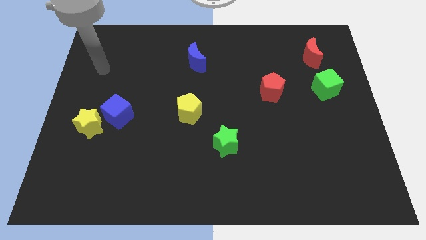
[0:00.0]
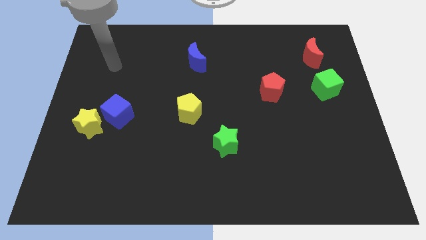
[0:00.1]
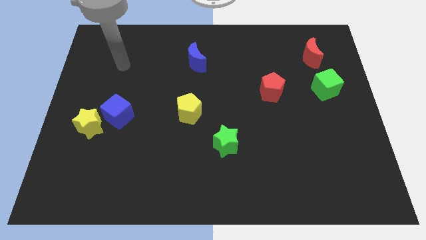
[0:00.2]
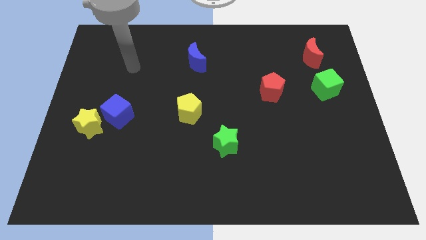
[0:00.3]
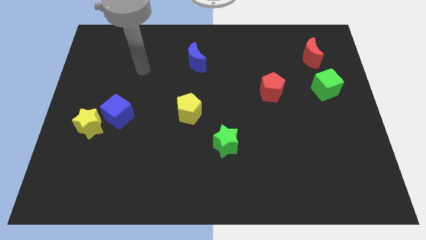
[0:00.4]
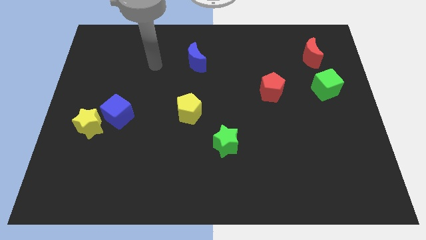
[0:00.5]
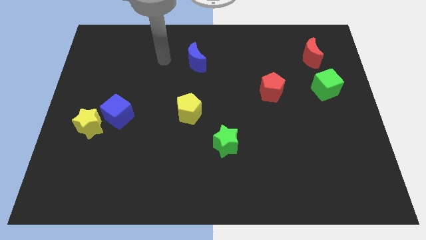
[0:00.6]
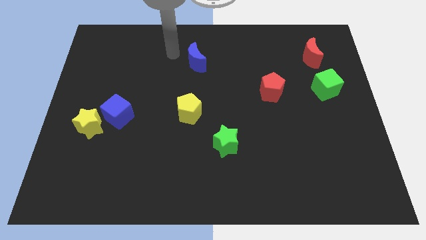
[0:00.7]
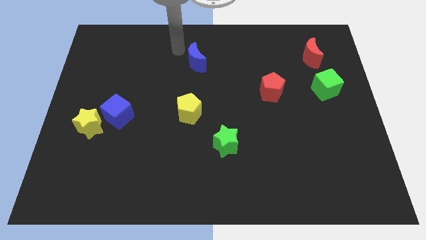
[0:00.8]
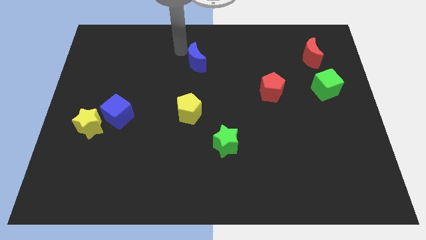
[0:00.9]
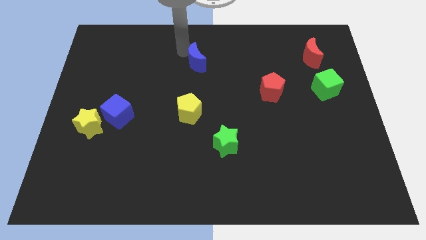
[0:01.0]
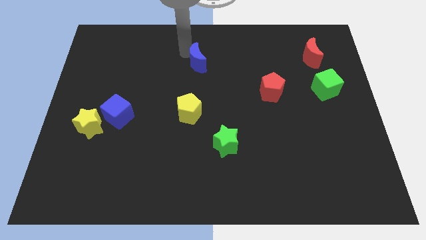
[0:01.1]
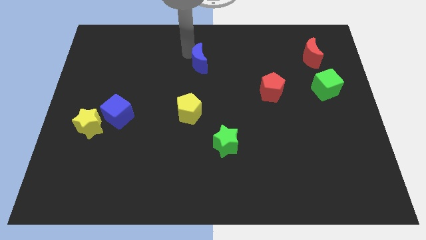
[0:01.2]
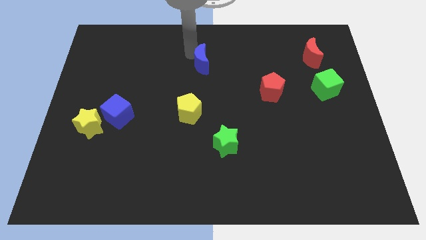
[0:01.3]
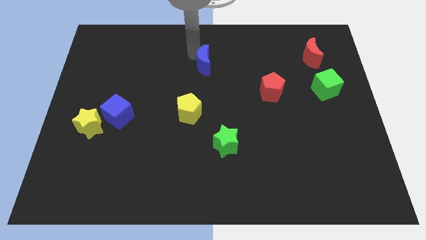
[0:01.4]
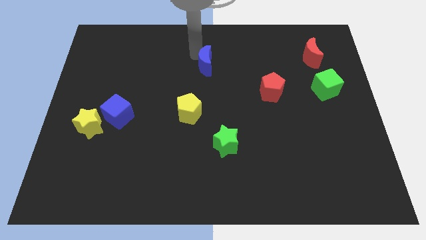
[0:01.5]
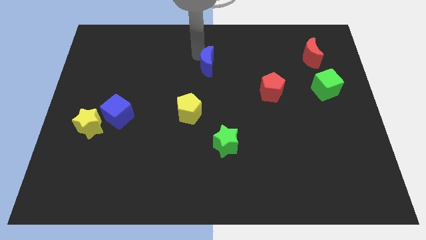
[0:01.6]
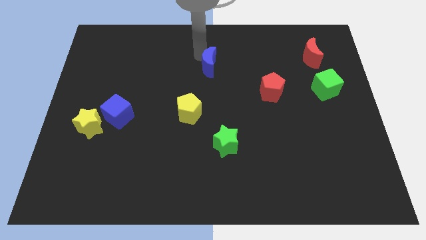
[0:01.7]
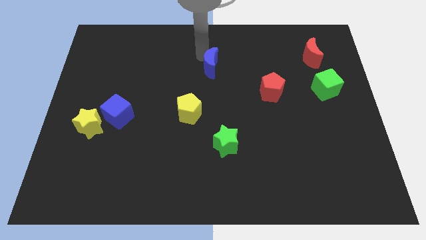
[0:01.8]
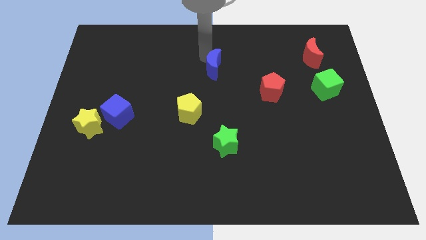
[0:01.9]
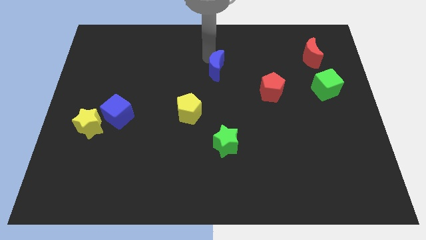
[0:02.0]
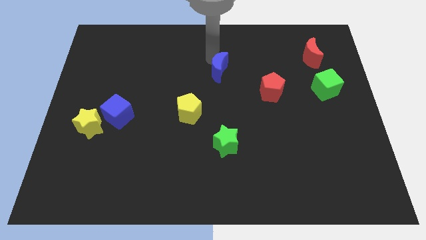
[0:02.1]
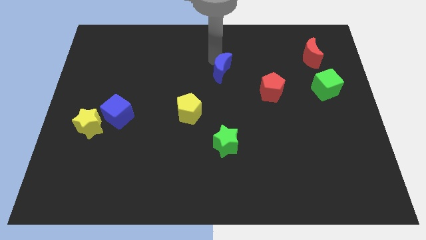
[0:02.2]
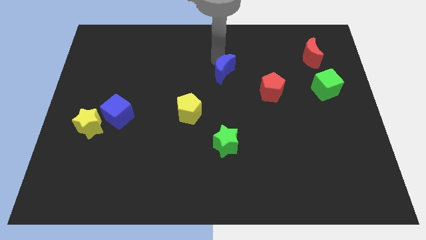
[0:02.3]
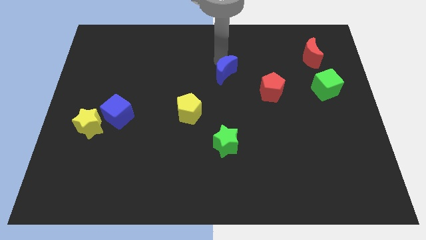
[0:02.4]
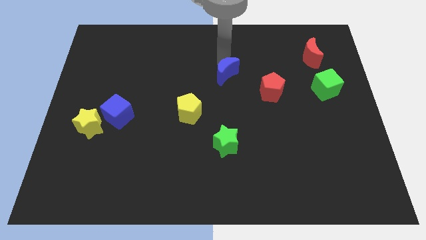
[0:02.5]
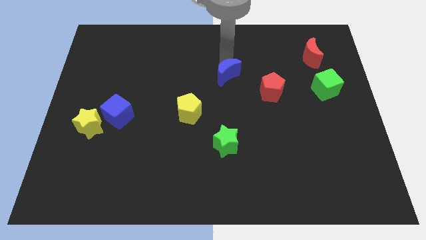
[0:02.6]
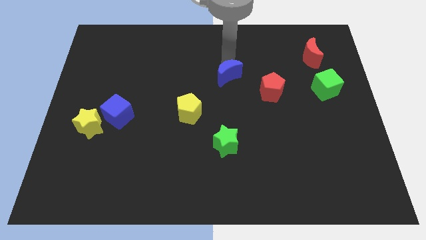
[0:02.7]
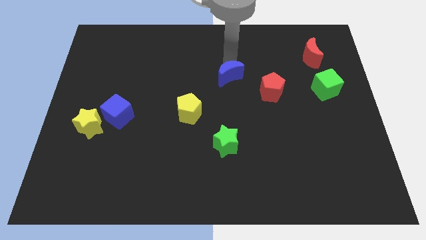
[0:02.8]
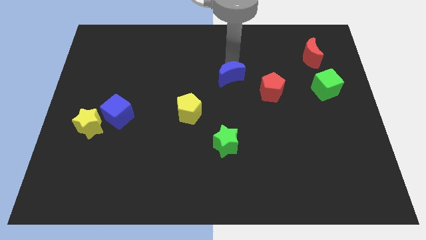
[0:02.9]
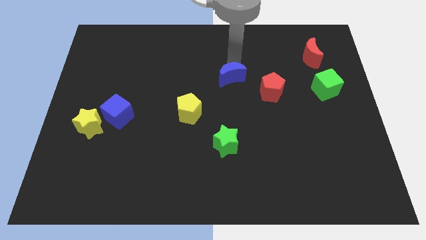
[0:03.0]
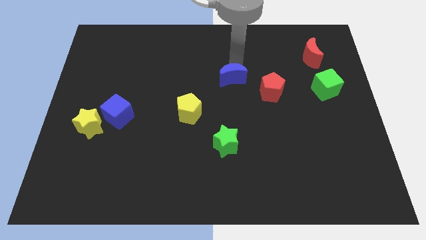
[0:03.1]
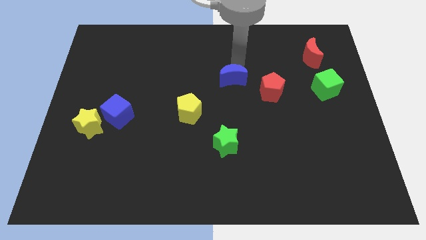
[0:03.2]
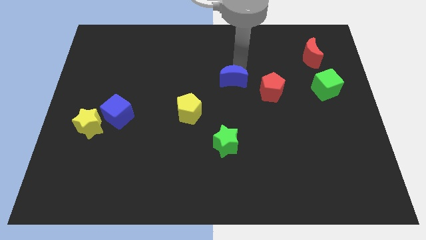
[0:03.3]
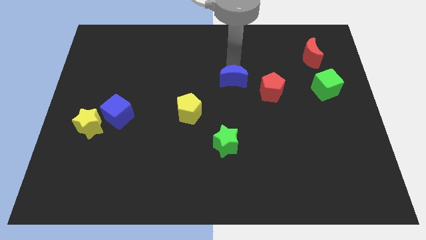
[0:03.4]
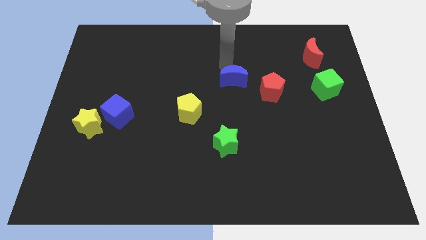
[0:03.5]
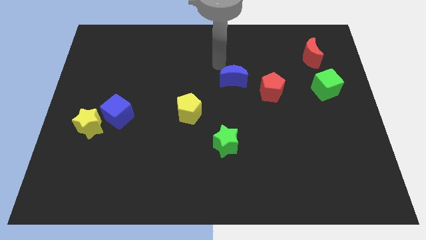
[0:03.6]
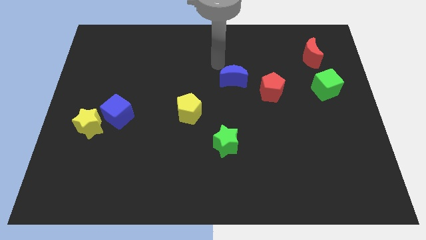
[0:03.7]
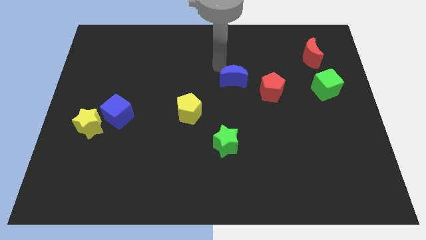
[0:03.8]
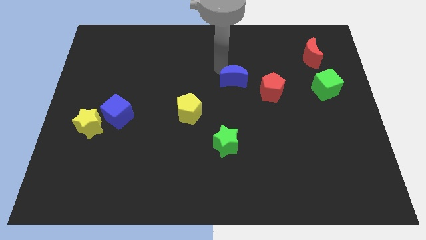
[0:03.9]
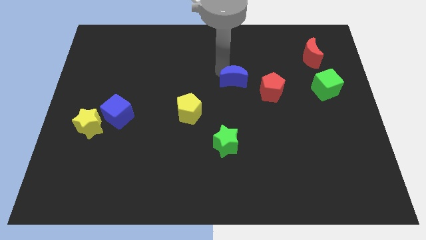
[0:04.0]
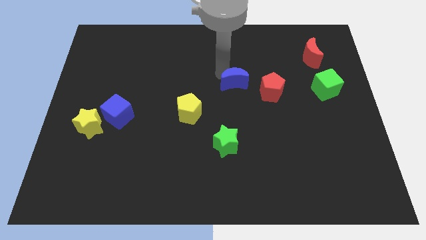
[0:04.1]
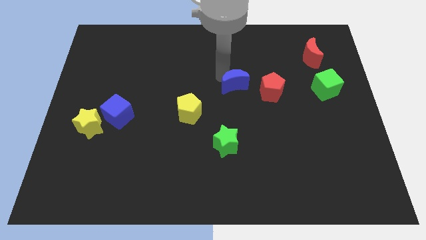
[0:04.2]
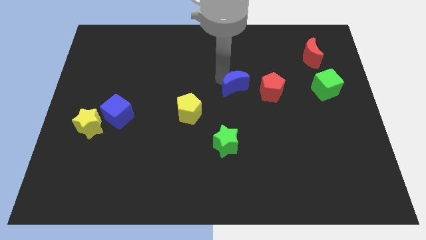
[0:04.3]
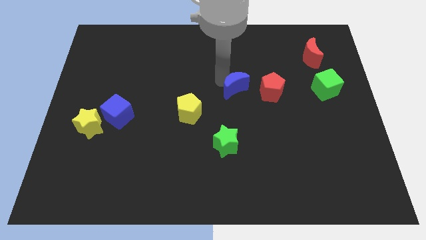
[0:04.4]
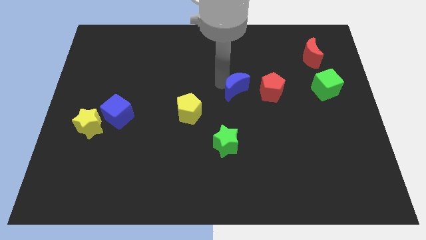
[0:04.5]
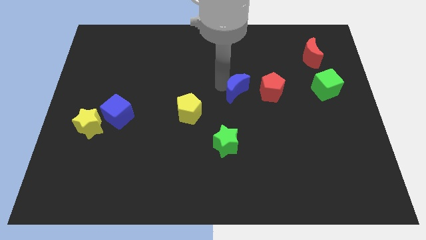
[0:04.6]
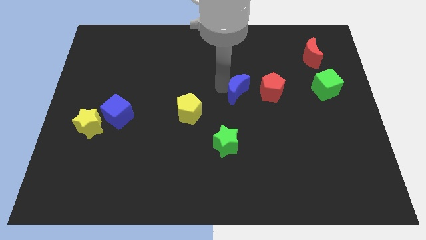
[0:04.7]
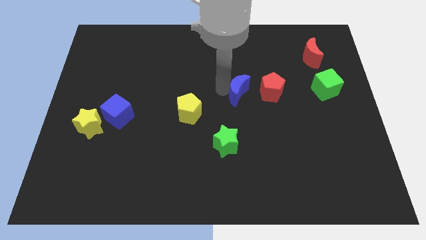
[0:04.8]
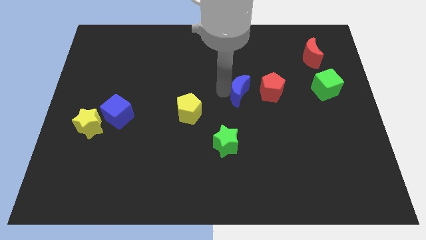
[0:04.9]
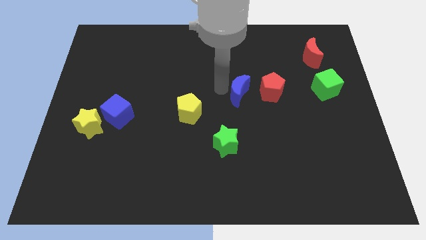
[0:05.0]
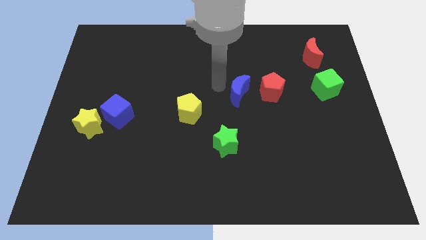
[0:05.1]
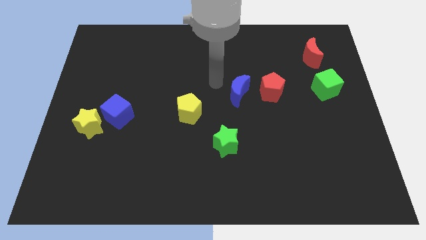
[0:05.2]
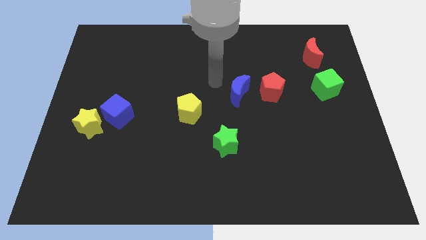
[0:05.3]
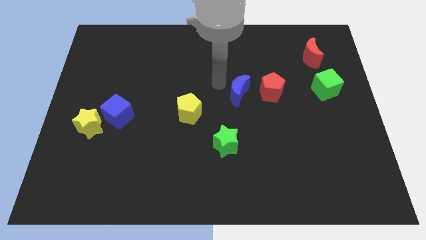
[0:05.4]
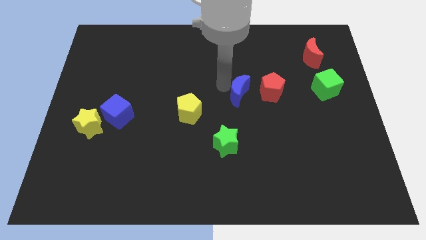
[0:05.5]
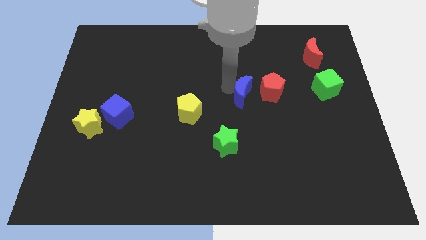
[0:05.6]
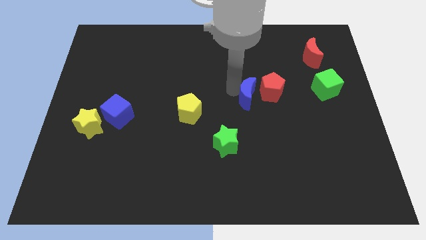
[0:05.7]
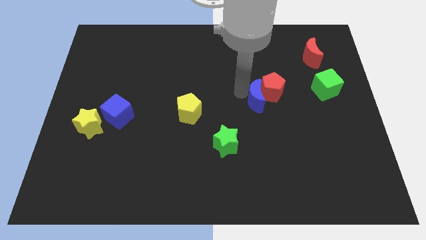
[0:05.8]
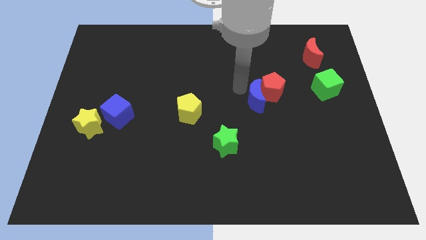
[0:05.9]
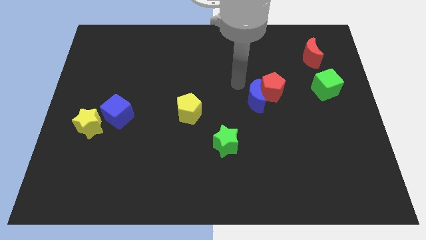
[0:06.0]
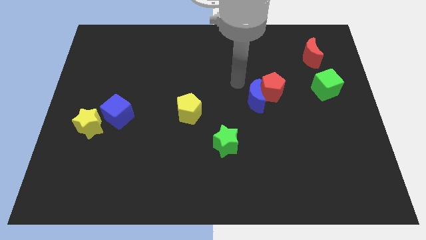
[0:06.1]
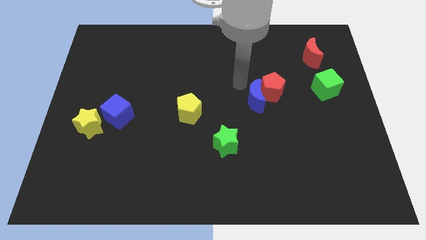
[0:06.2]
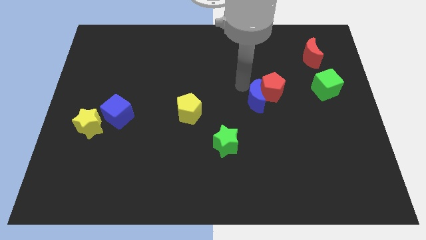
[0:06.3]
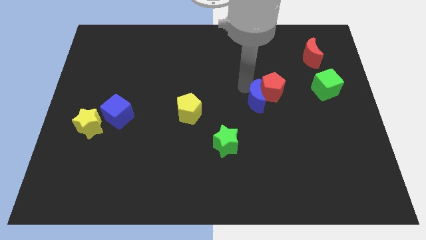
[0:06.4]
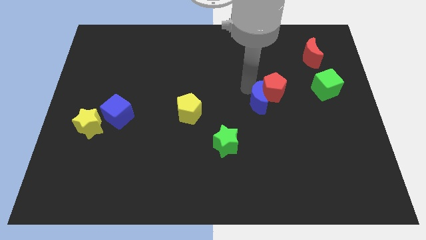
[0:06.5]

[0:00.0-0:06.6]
move the blue moon down and right diagonally

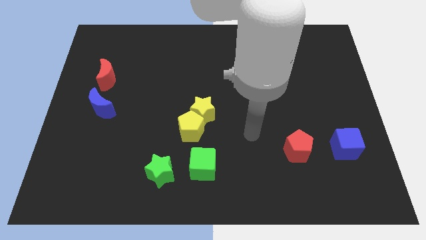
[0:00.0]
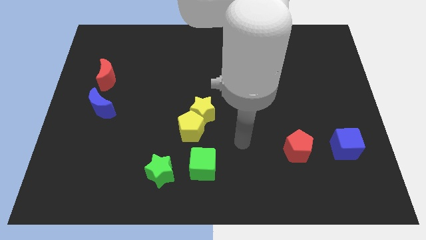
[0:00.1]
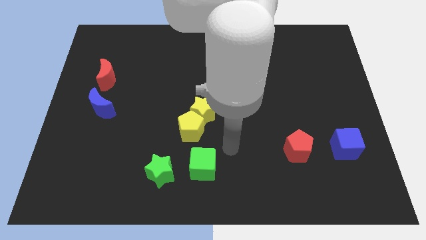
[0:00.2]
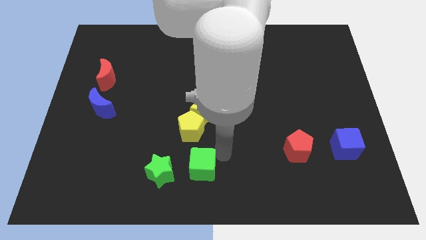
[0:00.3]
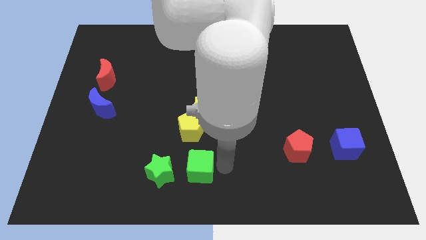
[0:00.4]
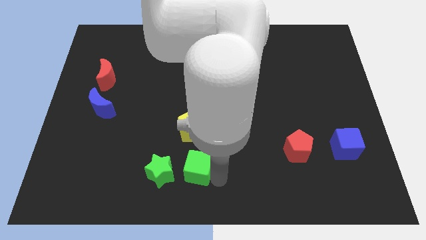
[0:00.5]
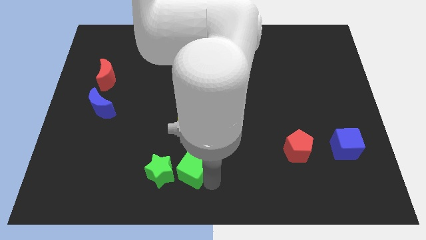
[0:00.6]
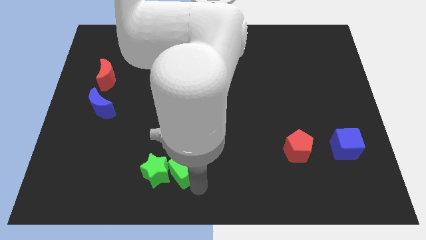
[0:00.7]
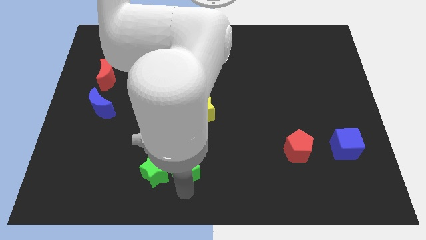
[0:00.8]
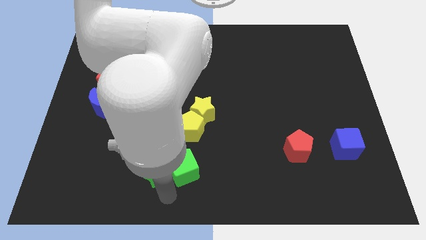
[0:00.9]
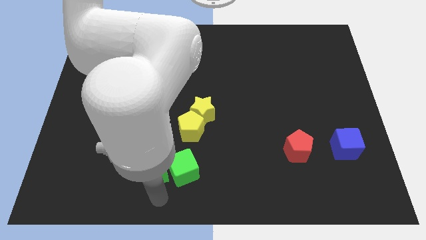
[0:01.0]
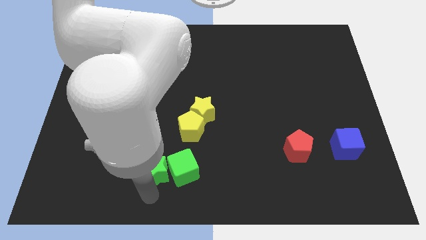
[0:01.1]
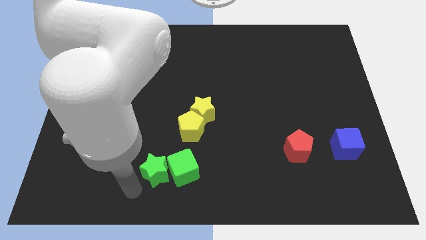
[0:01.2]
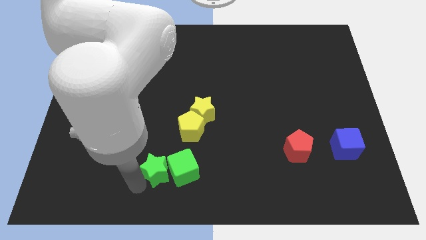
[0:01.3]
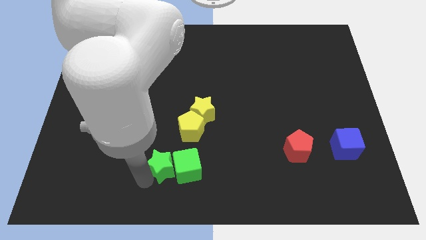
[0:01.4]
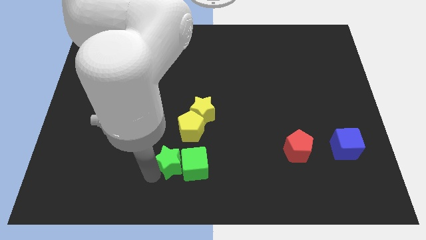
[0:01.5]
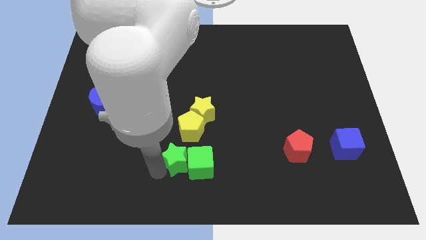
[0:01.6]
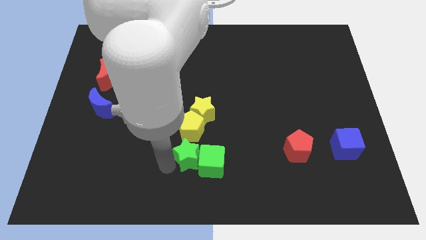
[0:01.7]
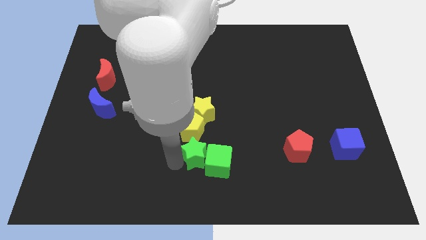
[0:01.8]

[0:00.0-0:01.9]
slightly move the green star diagonally up and to the right
